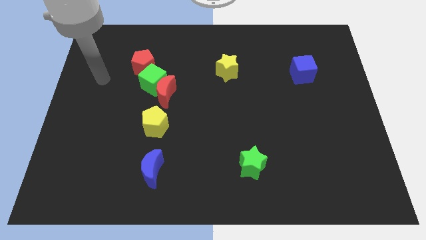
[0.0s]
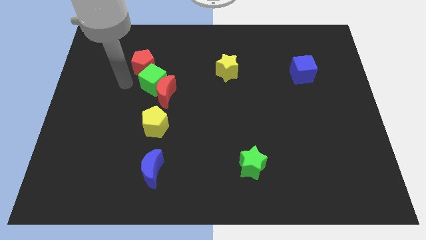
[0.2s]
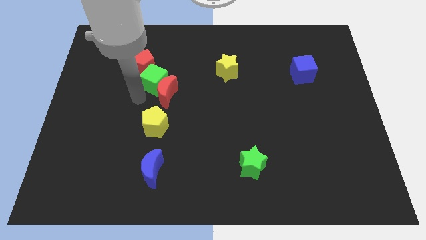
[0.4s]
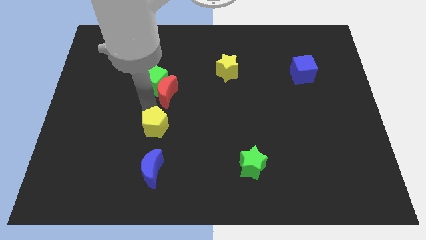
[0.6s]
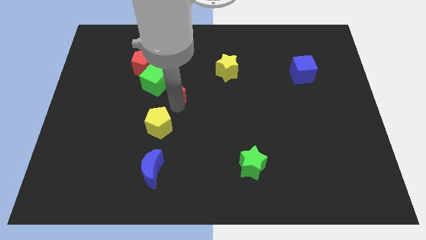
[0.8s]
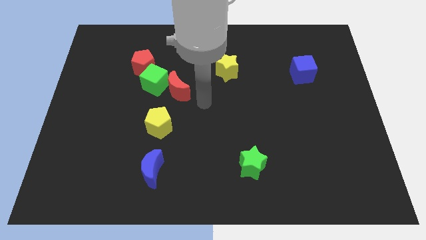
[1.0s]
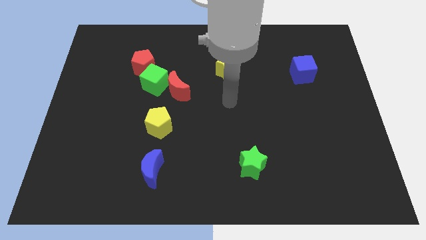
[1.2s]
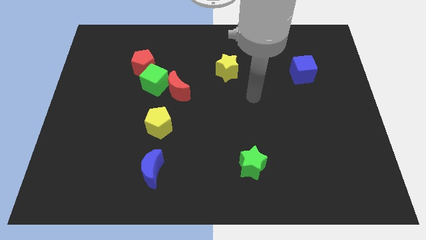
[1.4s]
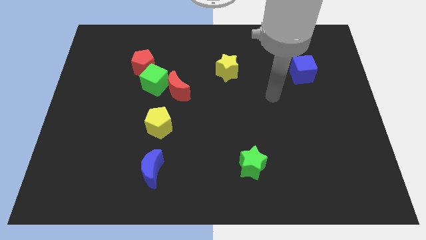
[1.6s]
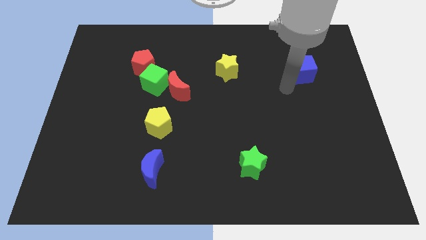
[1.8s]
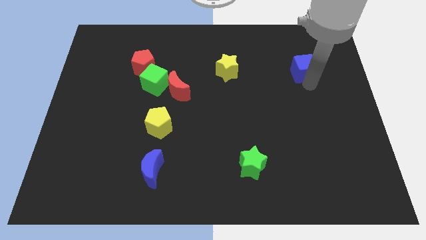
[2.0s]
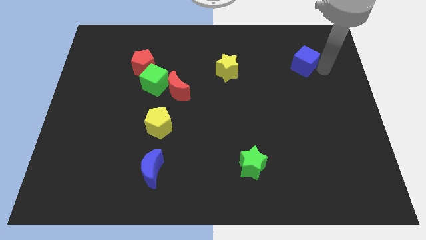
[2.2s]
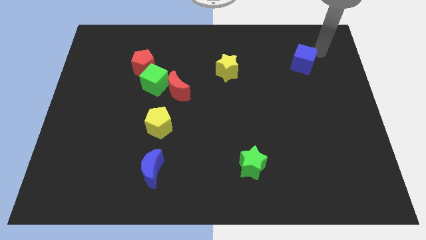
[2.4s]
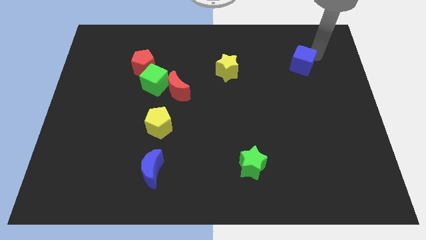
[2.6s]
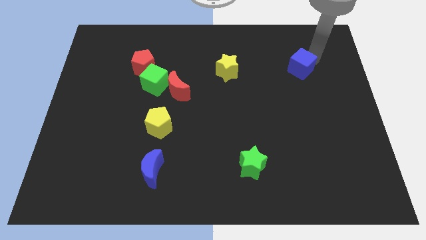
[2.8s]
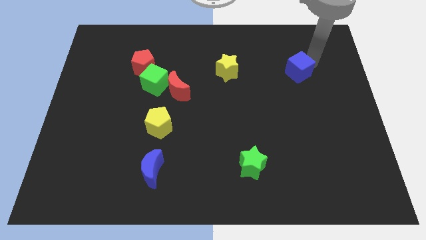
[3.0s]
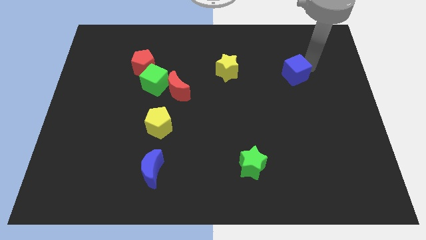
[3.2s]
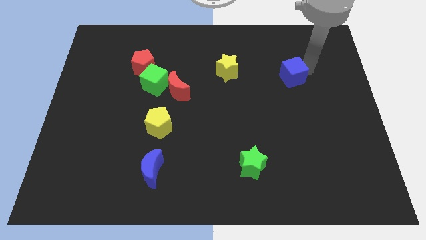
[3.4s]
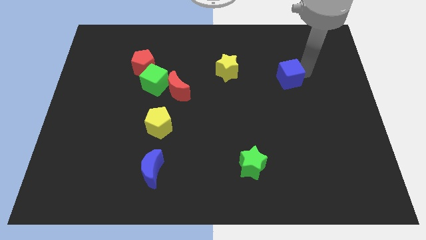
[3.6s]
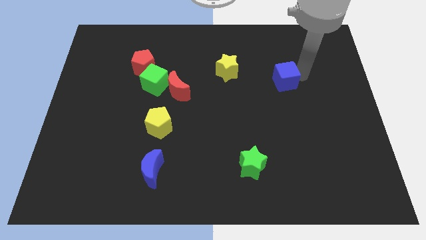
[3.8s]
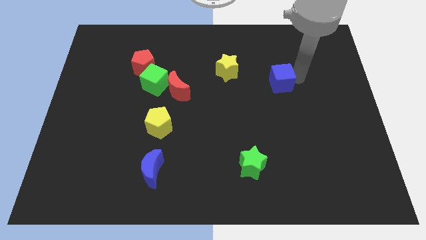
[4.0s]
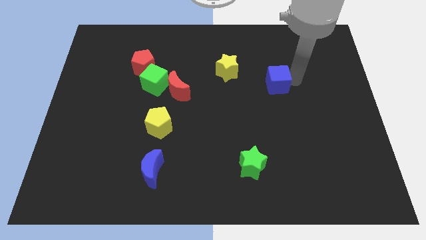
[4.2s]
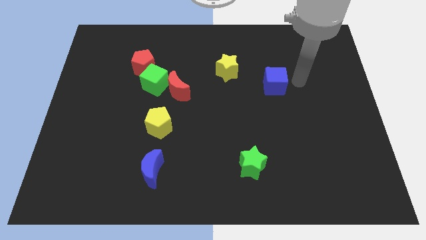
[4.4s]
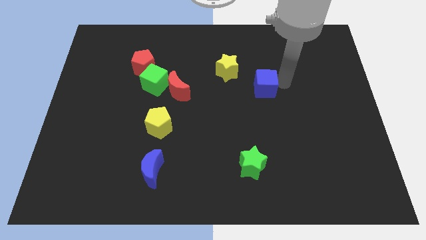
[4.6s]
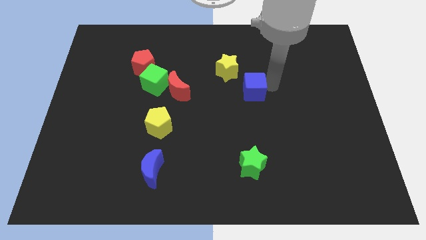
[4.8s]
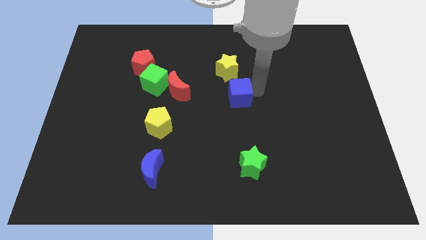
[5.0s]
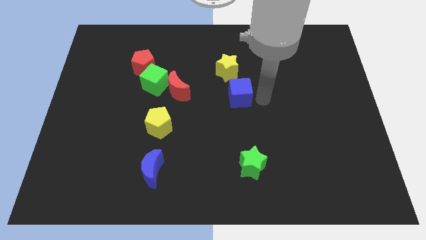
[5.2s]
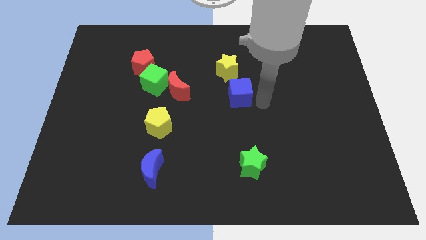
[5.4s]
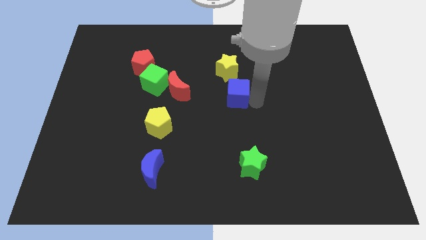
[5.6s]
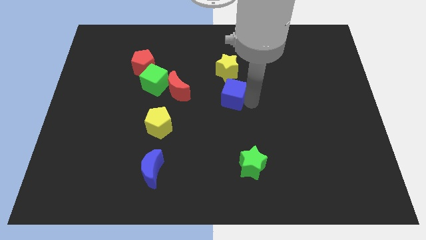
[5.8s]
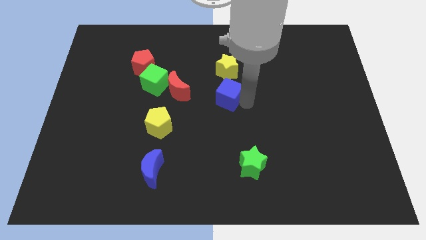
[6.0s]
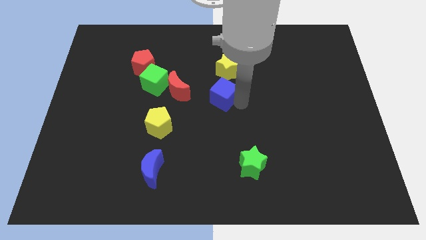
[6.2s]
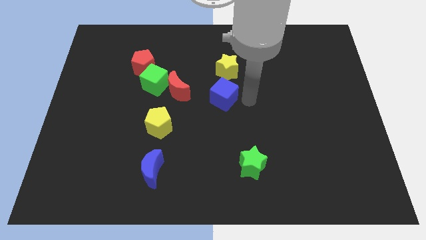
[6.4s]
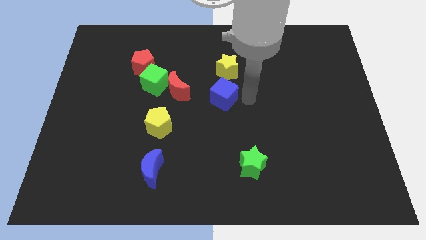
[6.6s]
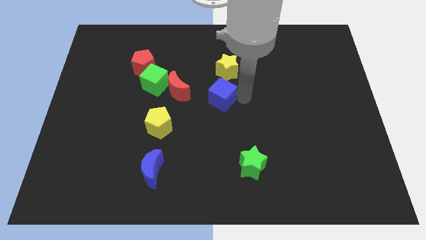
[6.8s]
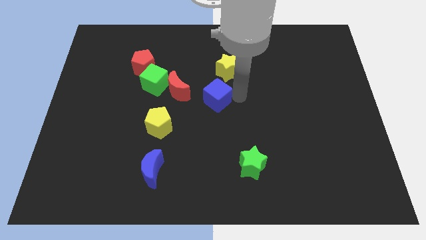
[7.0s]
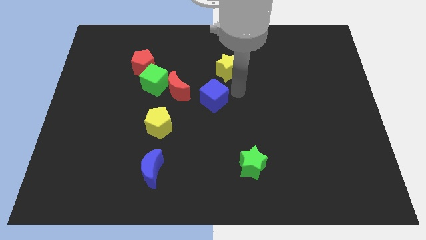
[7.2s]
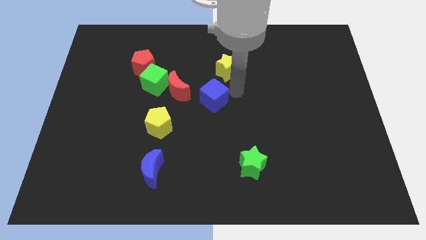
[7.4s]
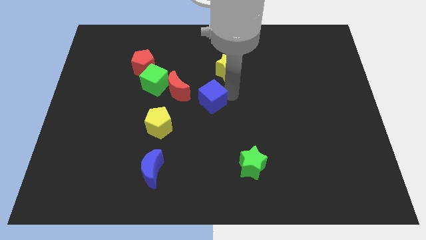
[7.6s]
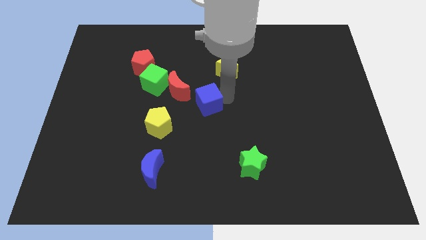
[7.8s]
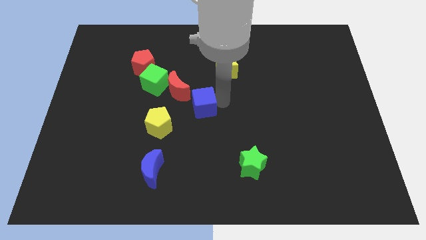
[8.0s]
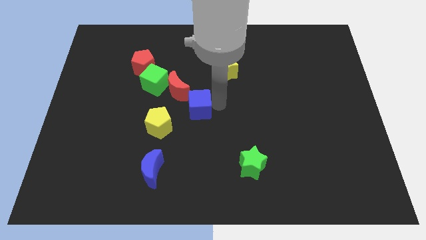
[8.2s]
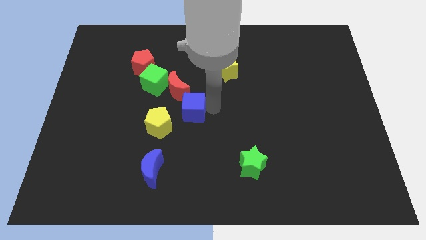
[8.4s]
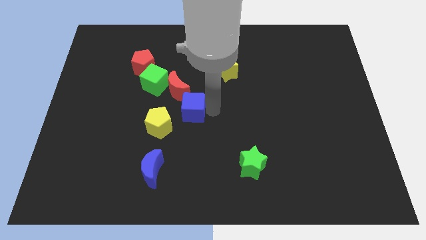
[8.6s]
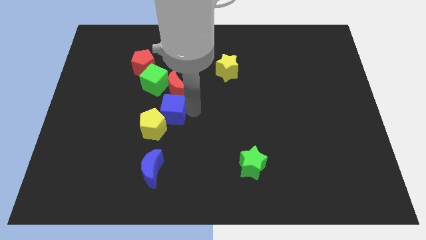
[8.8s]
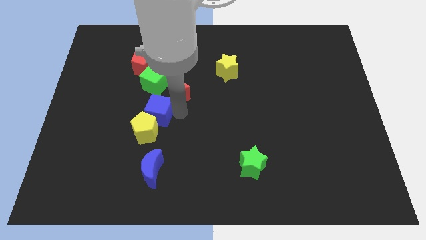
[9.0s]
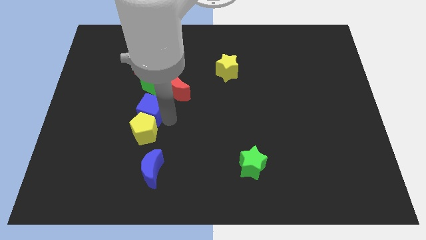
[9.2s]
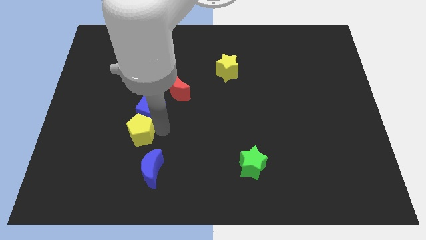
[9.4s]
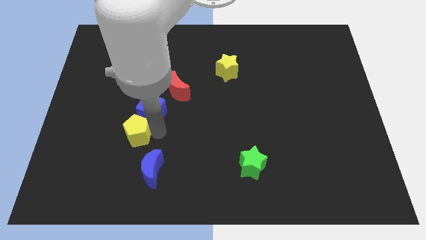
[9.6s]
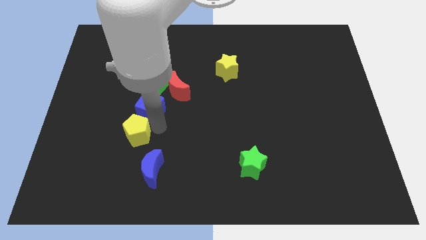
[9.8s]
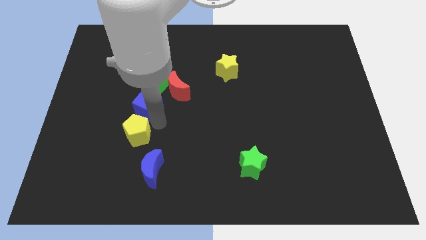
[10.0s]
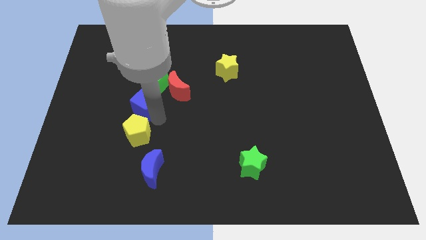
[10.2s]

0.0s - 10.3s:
put the blue cube to the left side of the red moon

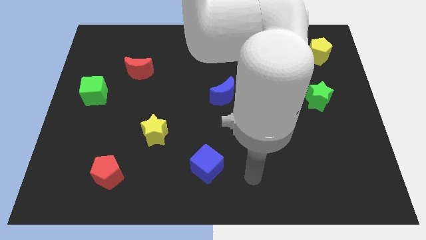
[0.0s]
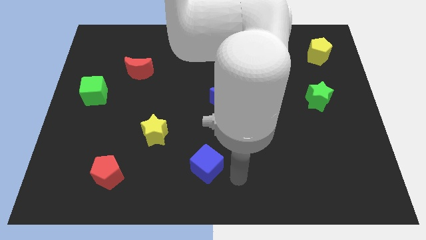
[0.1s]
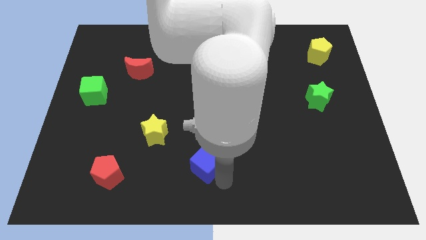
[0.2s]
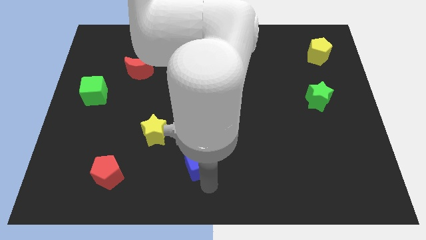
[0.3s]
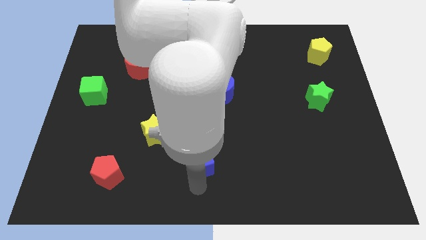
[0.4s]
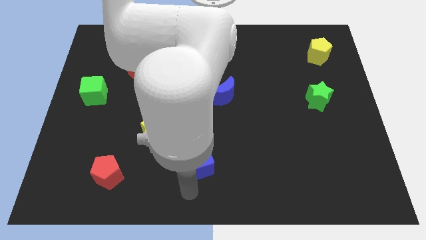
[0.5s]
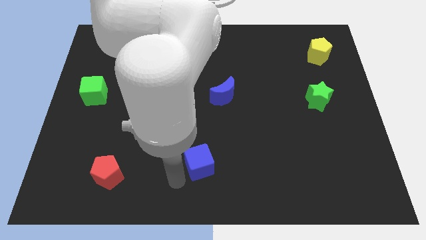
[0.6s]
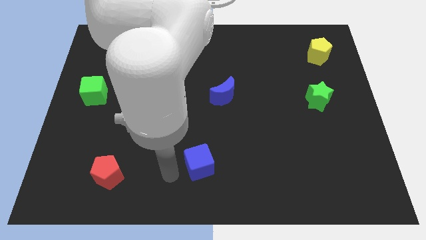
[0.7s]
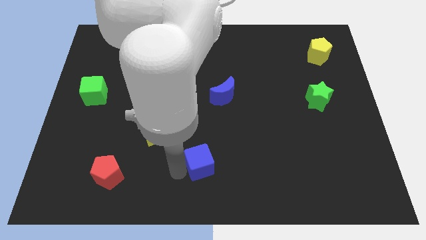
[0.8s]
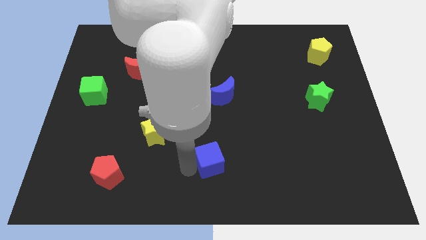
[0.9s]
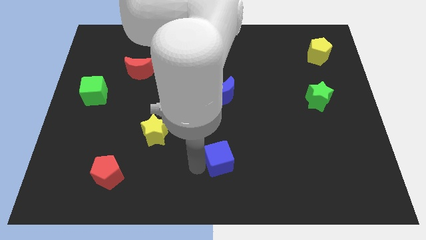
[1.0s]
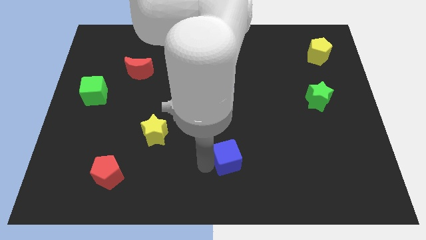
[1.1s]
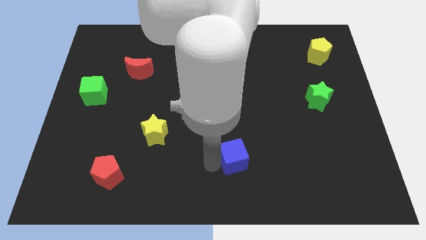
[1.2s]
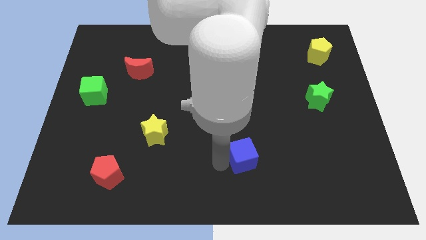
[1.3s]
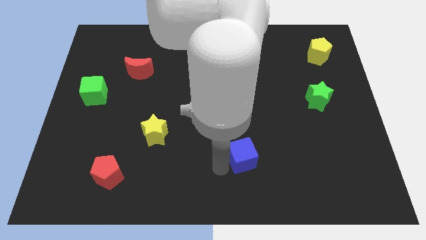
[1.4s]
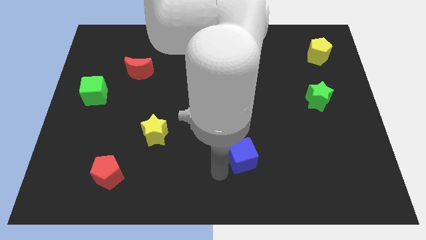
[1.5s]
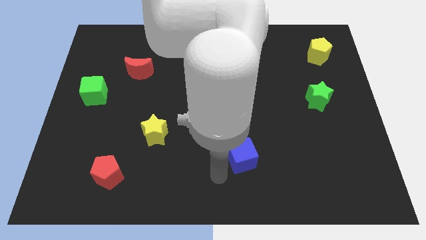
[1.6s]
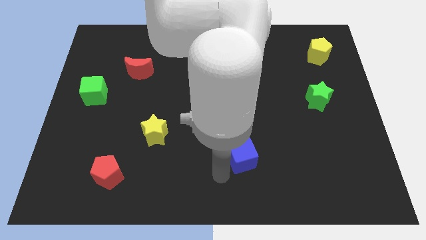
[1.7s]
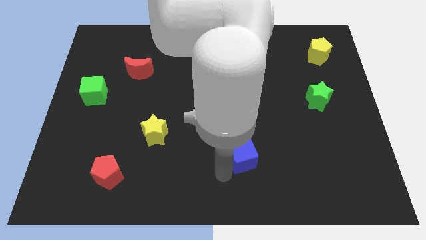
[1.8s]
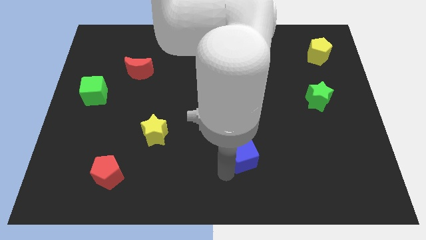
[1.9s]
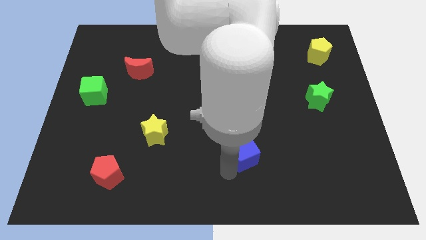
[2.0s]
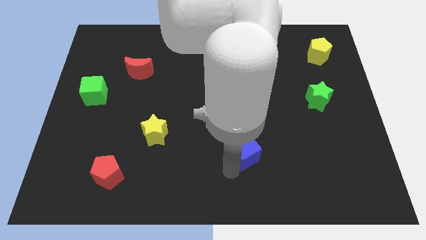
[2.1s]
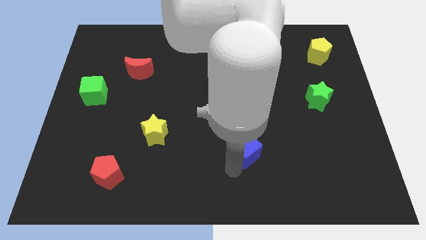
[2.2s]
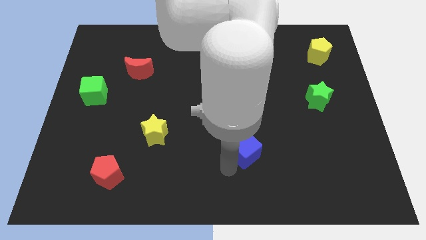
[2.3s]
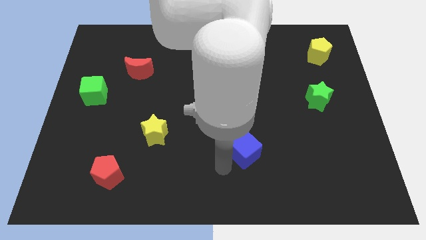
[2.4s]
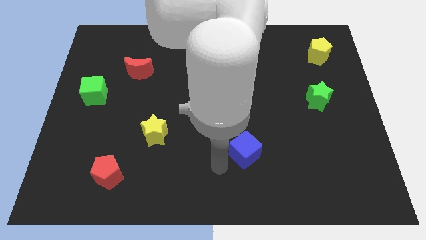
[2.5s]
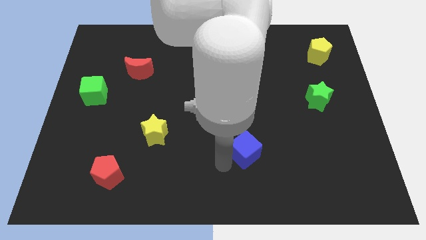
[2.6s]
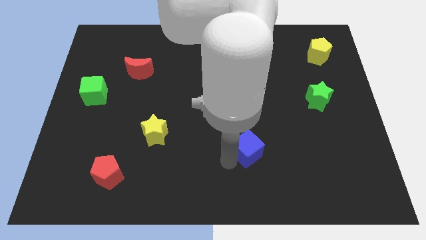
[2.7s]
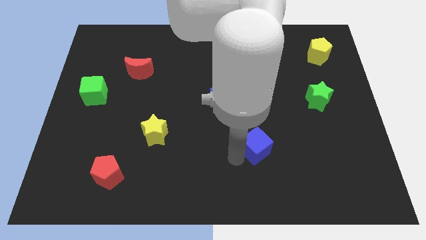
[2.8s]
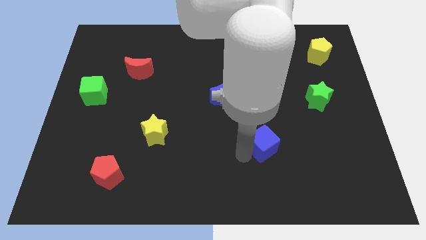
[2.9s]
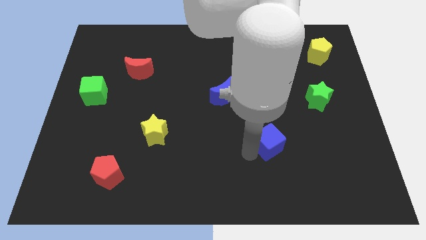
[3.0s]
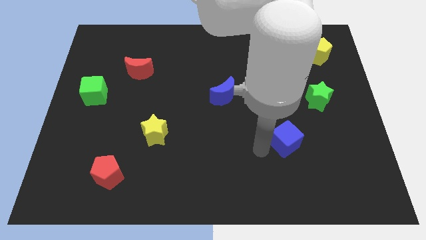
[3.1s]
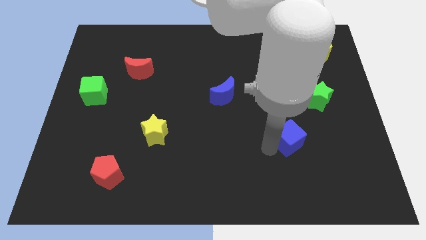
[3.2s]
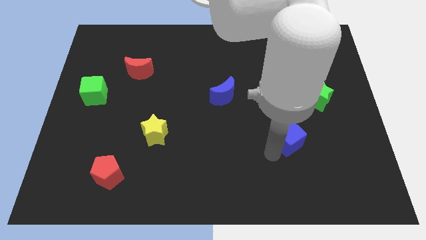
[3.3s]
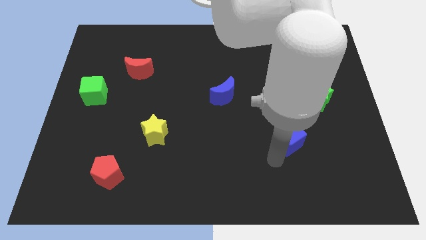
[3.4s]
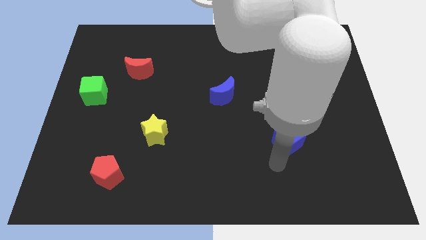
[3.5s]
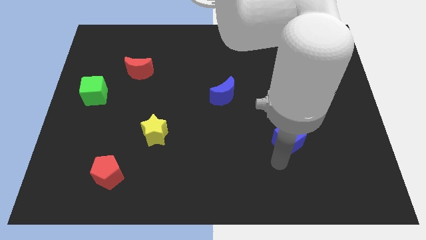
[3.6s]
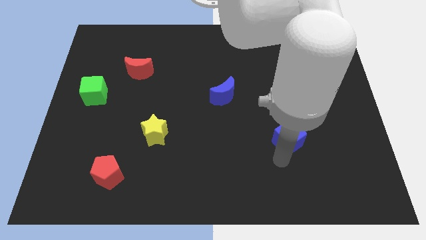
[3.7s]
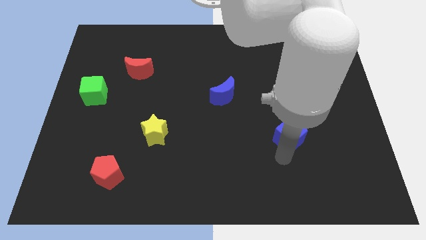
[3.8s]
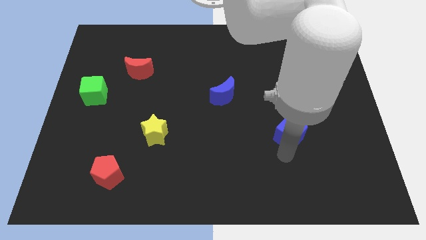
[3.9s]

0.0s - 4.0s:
slide the blue cube to the bottom left side of the green star
